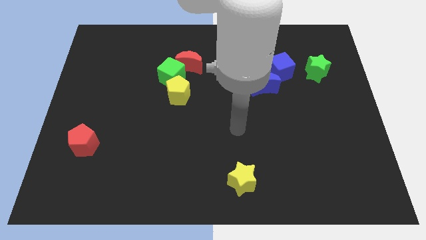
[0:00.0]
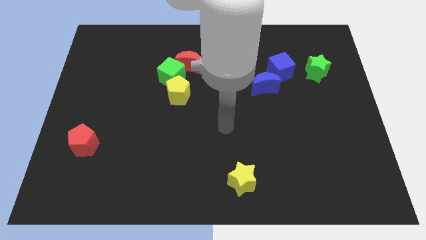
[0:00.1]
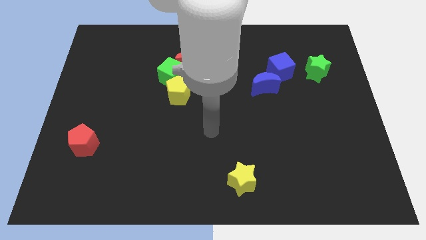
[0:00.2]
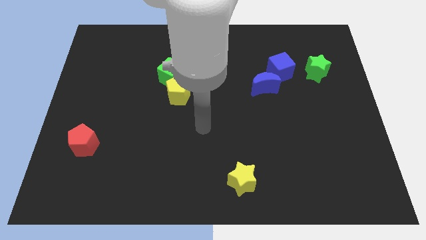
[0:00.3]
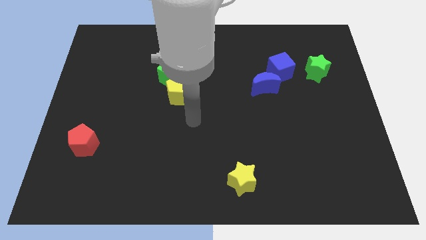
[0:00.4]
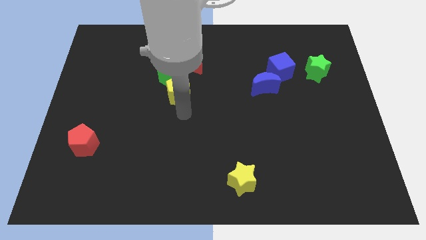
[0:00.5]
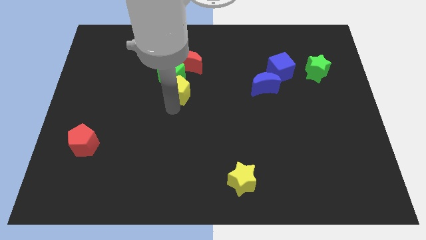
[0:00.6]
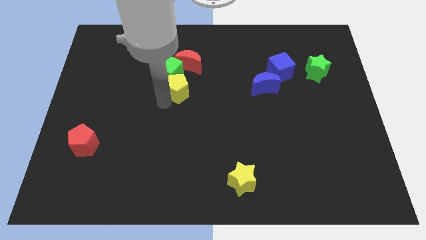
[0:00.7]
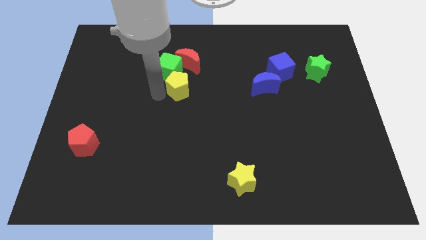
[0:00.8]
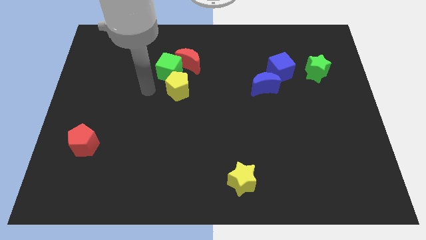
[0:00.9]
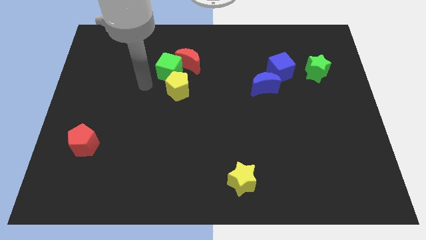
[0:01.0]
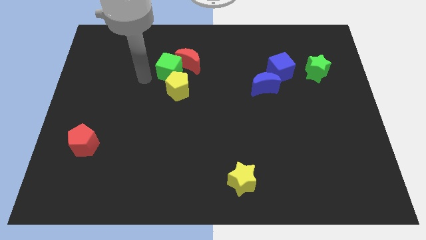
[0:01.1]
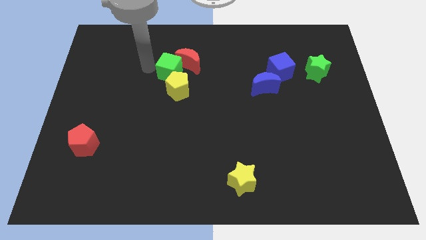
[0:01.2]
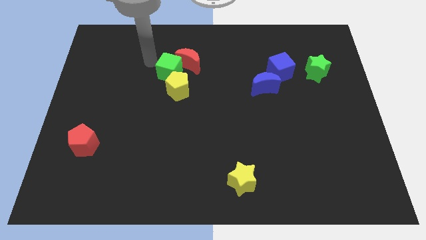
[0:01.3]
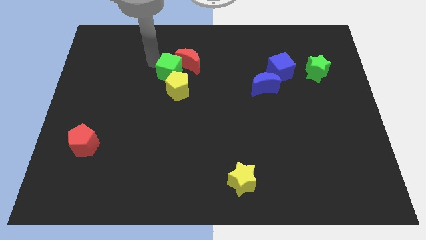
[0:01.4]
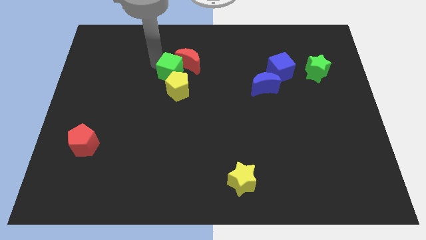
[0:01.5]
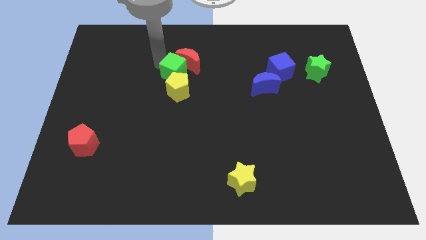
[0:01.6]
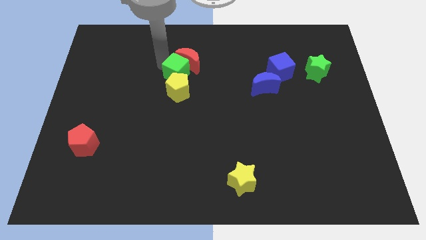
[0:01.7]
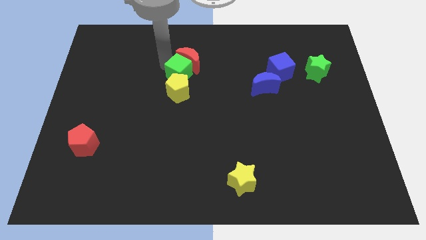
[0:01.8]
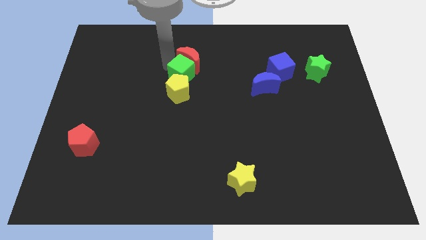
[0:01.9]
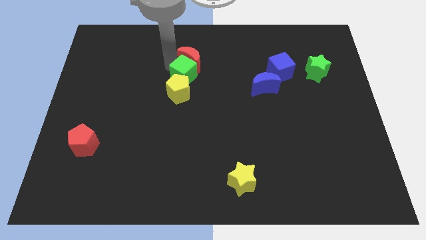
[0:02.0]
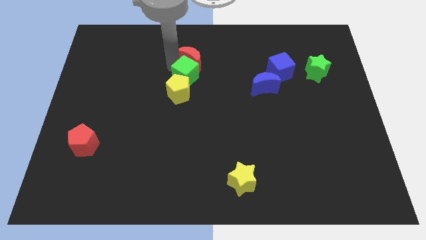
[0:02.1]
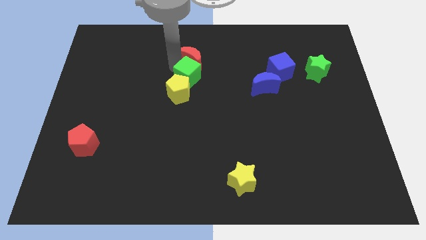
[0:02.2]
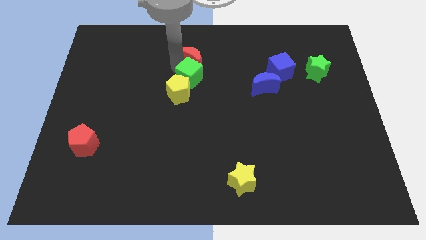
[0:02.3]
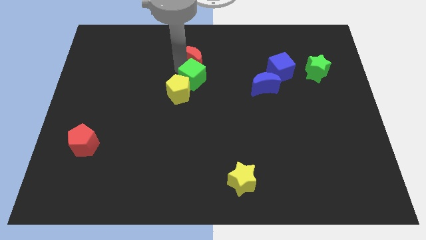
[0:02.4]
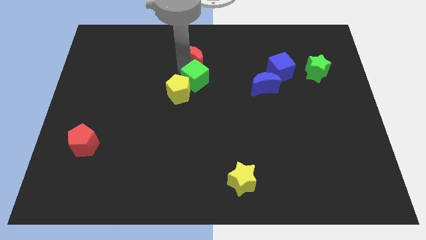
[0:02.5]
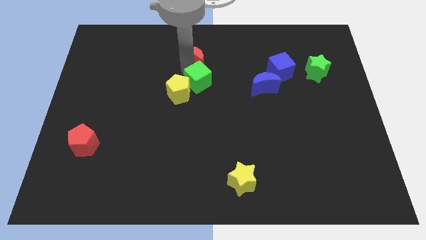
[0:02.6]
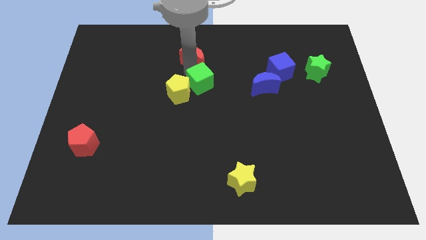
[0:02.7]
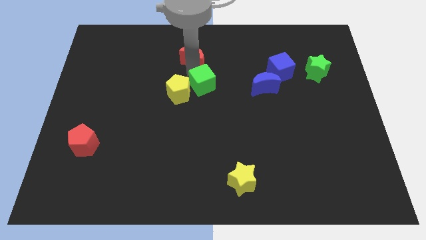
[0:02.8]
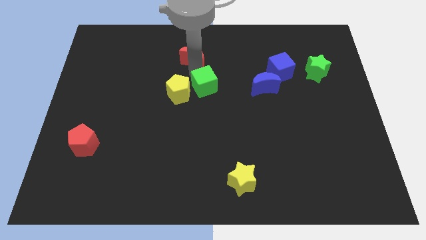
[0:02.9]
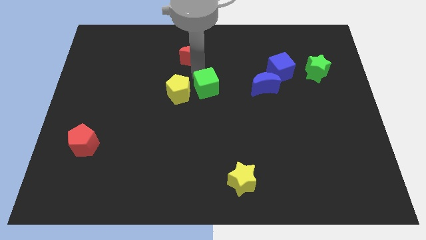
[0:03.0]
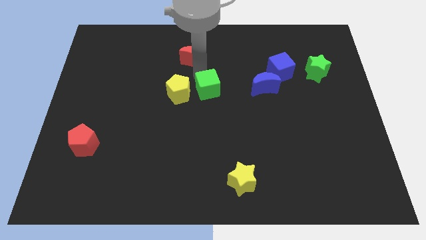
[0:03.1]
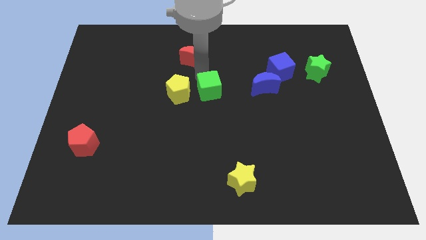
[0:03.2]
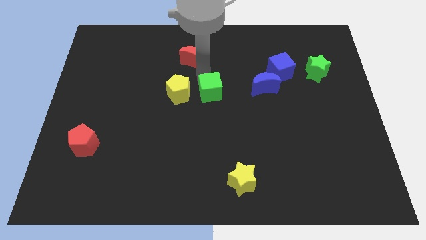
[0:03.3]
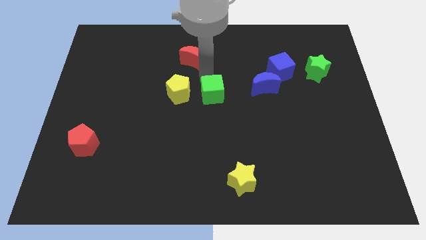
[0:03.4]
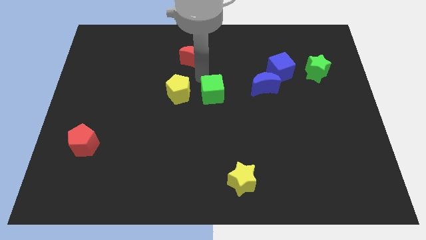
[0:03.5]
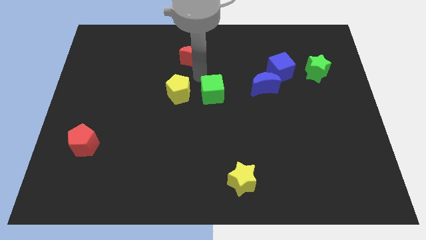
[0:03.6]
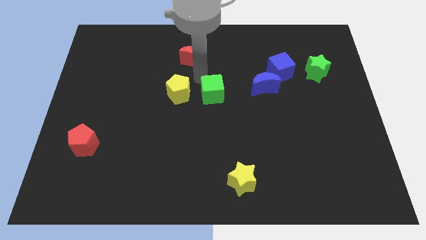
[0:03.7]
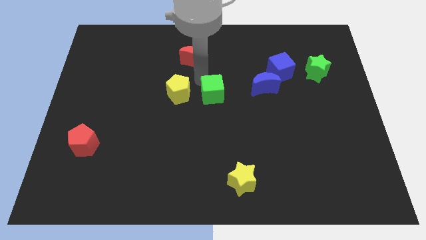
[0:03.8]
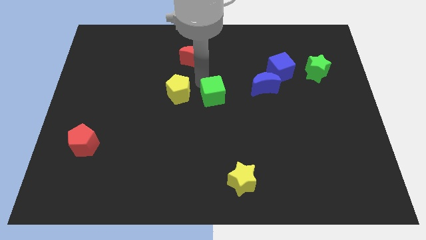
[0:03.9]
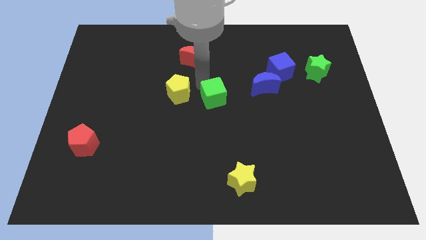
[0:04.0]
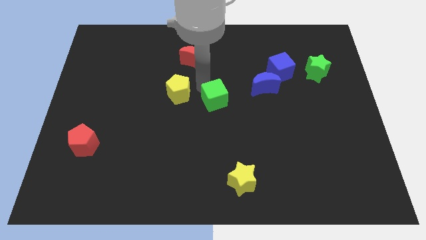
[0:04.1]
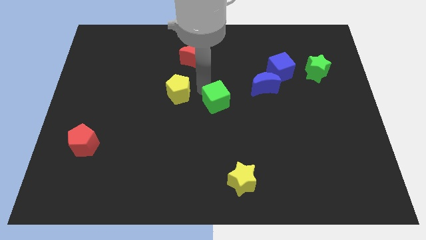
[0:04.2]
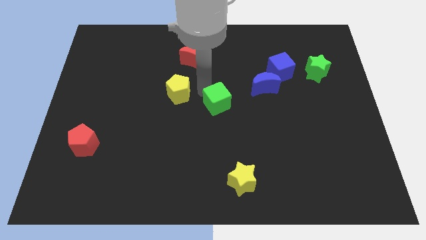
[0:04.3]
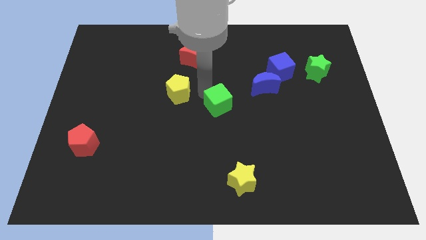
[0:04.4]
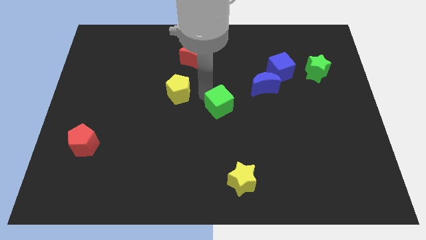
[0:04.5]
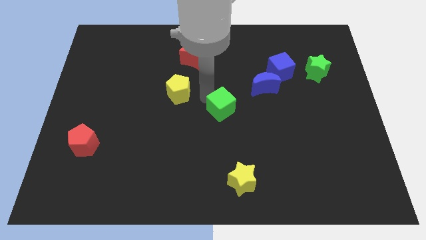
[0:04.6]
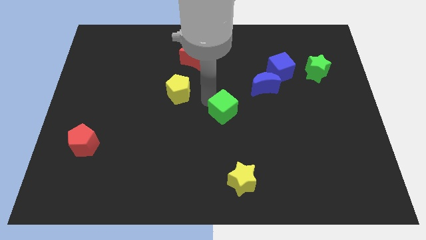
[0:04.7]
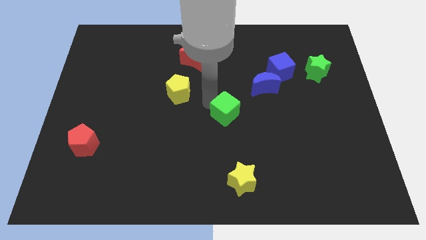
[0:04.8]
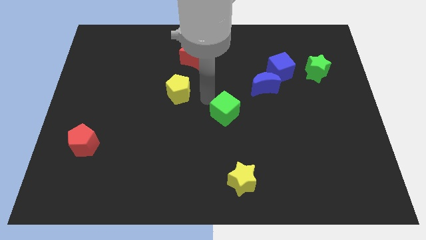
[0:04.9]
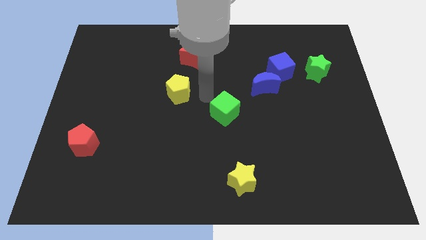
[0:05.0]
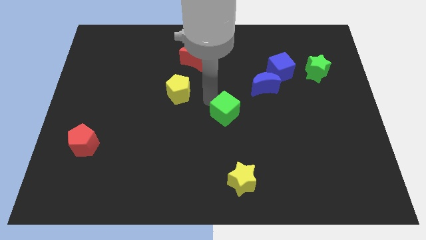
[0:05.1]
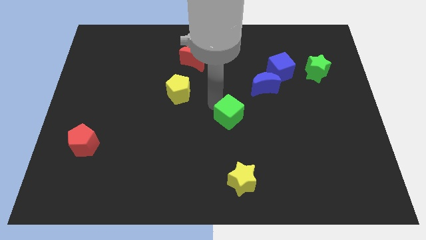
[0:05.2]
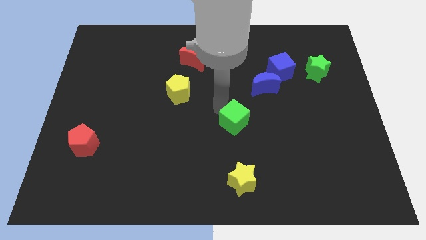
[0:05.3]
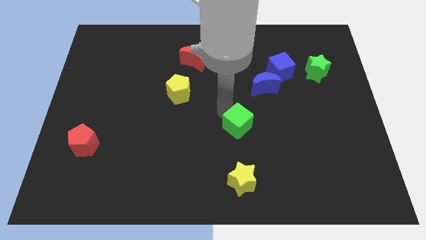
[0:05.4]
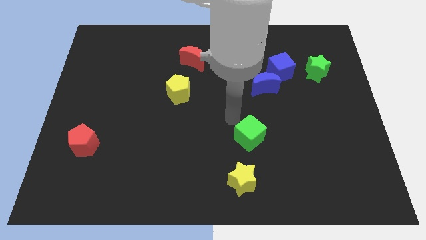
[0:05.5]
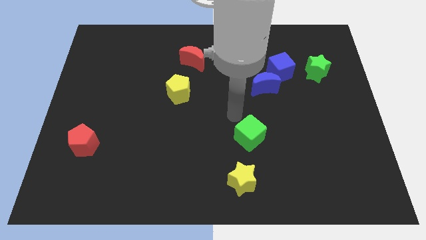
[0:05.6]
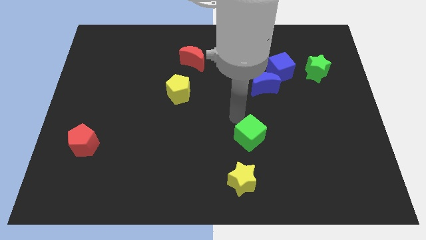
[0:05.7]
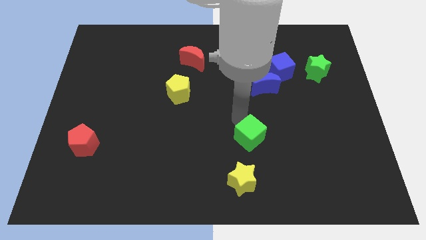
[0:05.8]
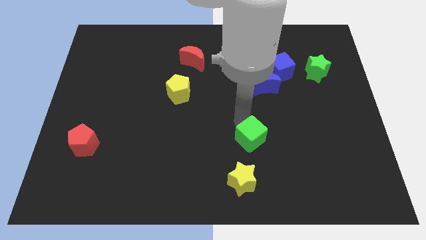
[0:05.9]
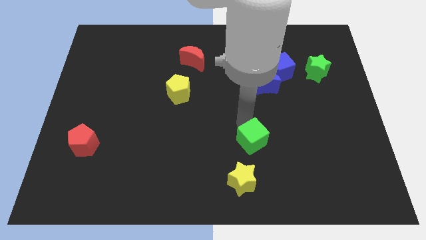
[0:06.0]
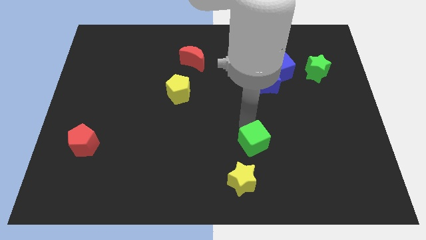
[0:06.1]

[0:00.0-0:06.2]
slide the green cube to the top right side of the yellow star
